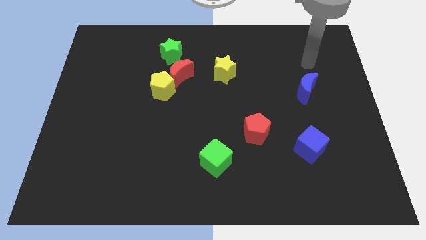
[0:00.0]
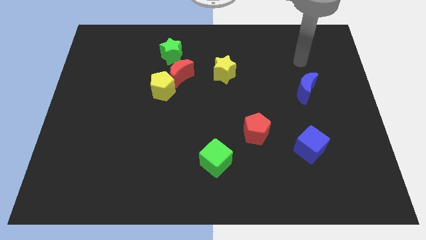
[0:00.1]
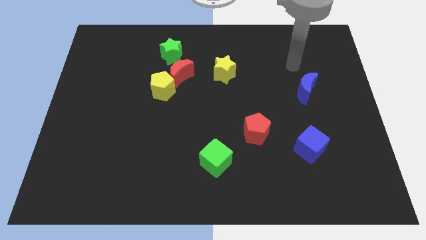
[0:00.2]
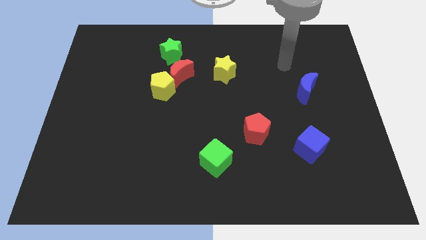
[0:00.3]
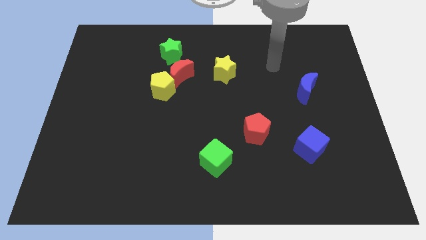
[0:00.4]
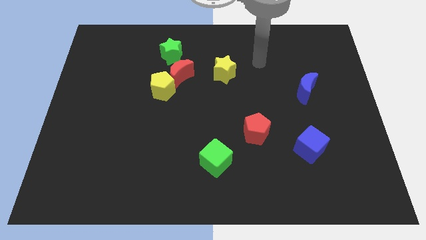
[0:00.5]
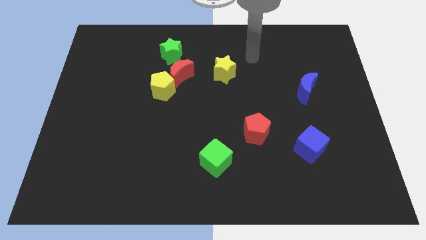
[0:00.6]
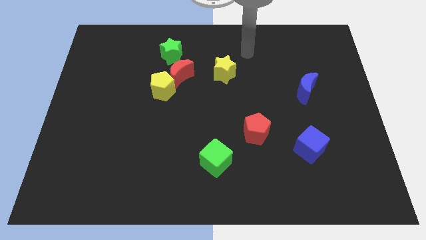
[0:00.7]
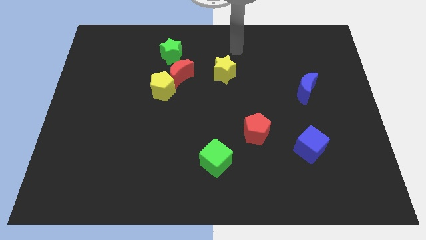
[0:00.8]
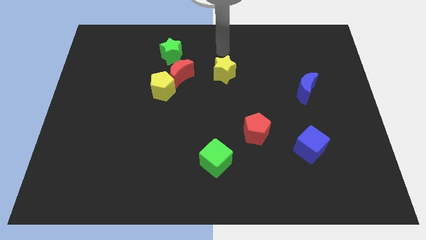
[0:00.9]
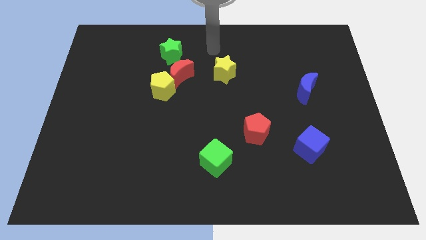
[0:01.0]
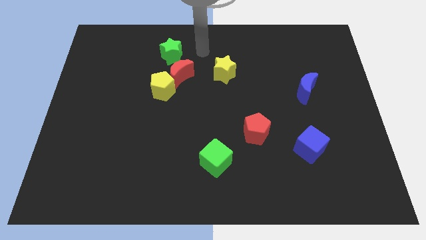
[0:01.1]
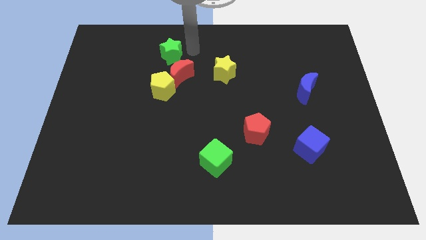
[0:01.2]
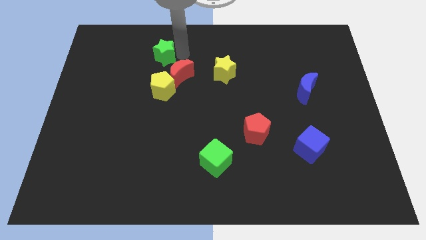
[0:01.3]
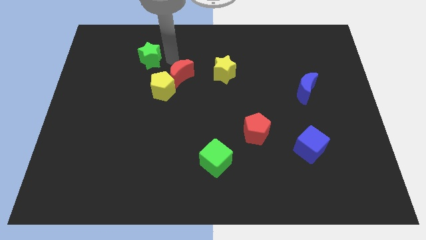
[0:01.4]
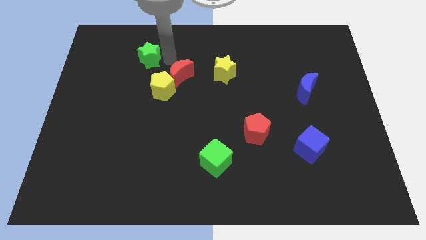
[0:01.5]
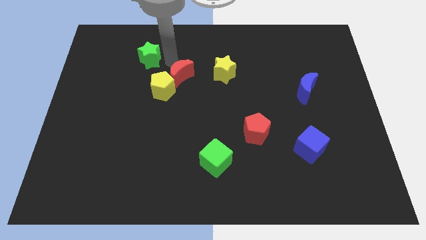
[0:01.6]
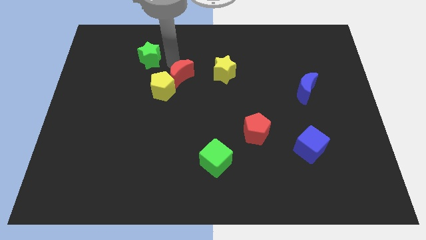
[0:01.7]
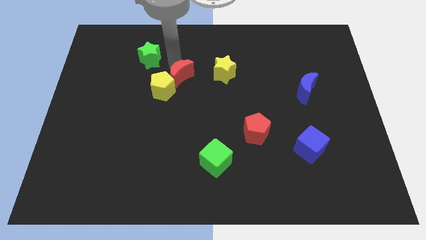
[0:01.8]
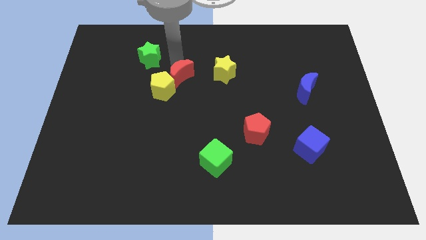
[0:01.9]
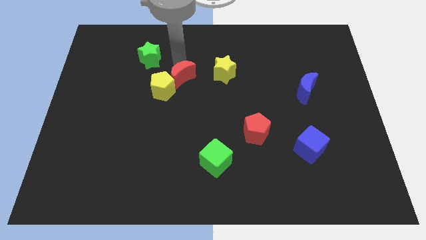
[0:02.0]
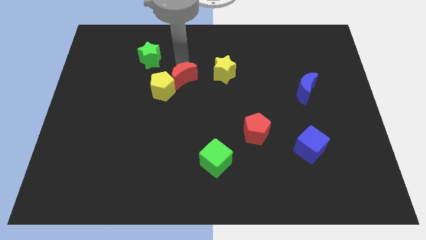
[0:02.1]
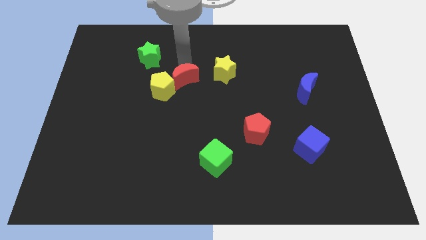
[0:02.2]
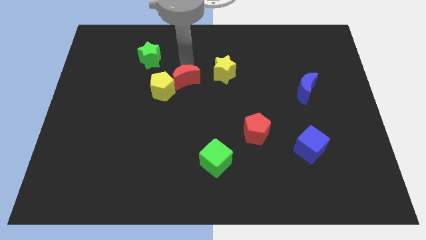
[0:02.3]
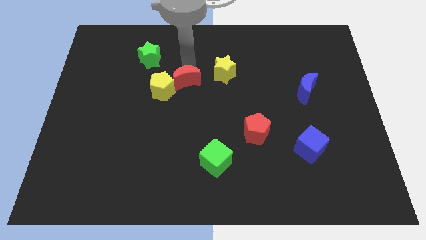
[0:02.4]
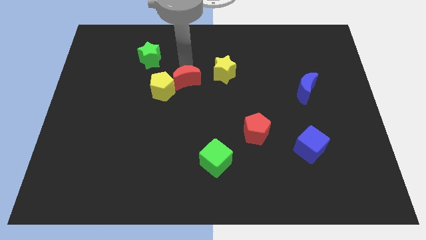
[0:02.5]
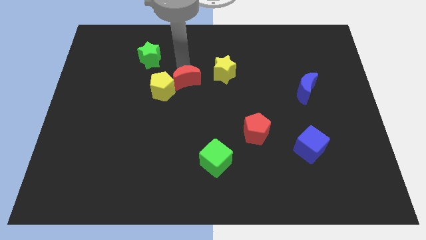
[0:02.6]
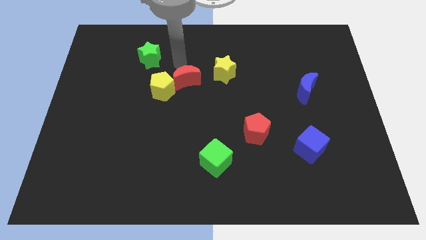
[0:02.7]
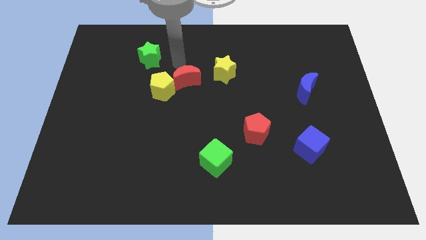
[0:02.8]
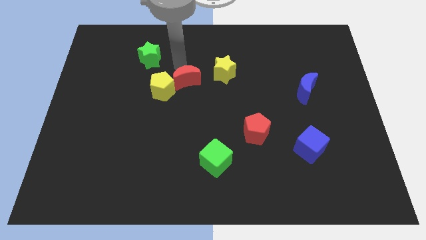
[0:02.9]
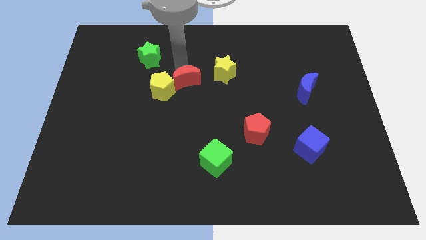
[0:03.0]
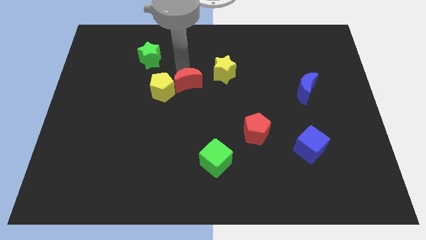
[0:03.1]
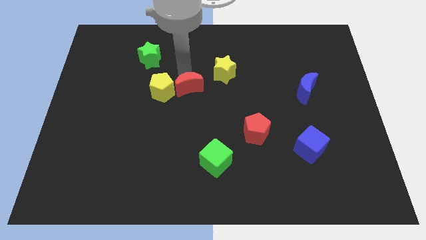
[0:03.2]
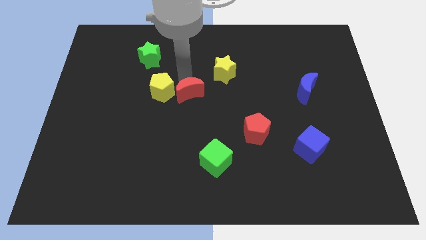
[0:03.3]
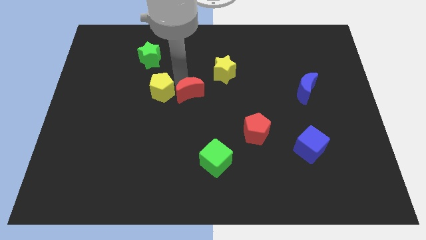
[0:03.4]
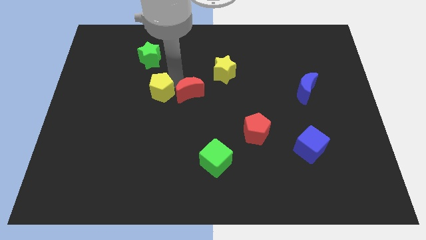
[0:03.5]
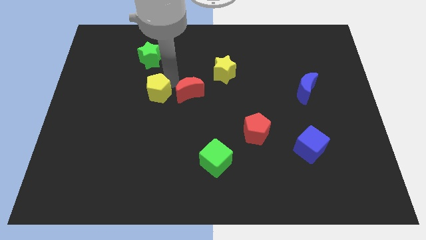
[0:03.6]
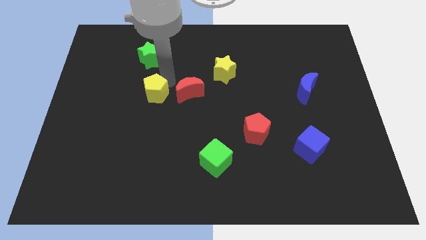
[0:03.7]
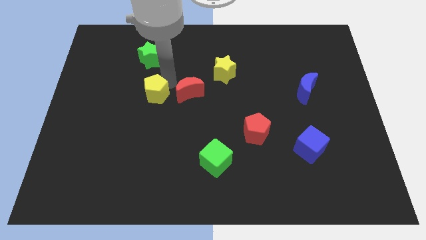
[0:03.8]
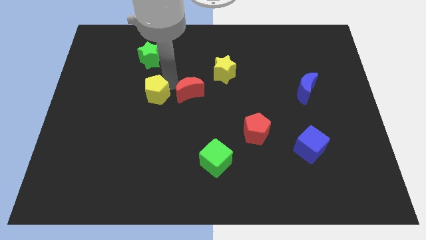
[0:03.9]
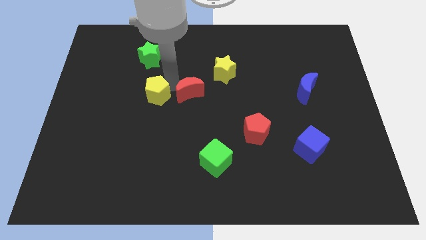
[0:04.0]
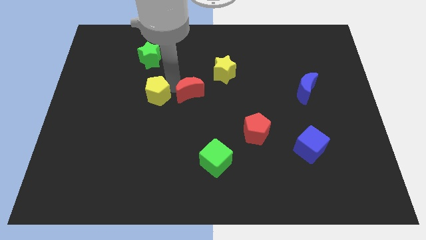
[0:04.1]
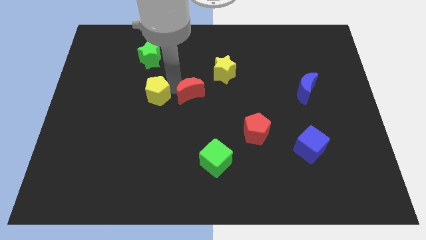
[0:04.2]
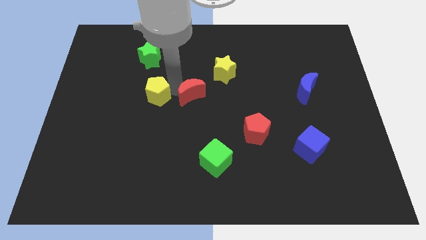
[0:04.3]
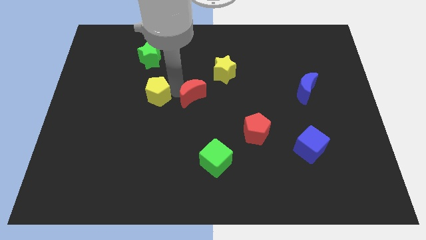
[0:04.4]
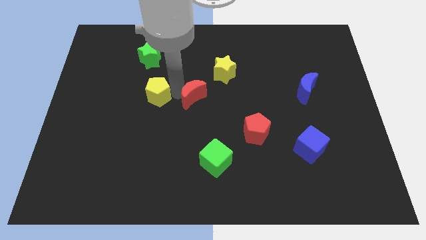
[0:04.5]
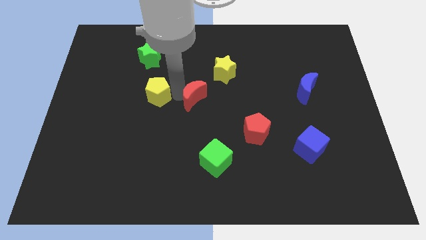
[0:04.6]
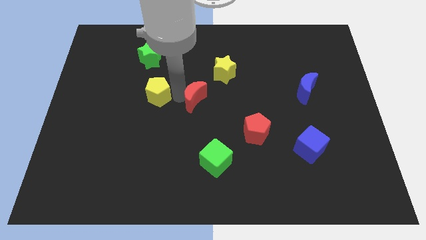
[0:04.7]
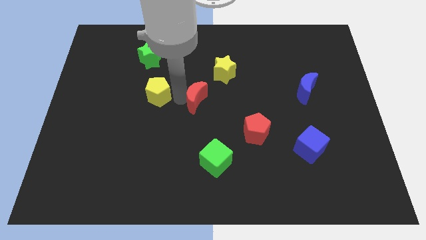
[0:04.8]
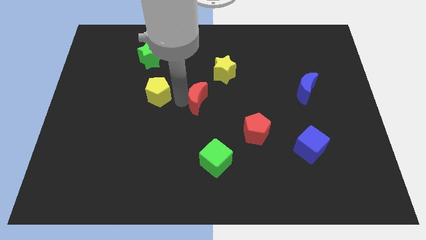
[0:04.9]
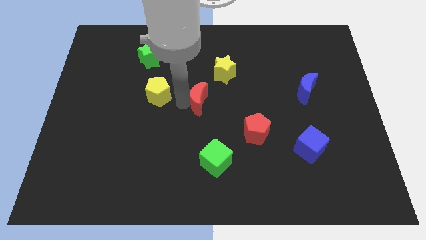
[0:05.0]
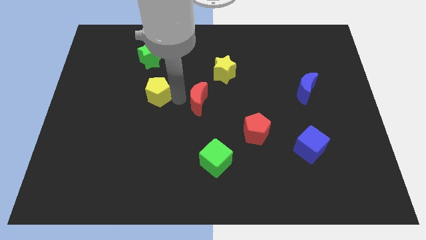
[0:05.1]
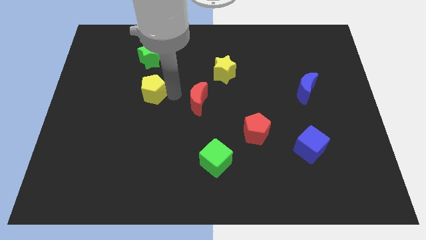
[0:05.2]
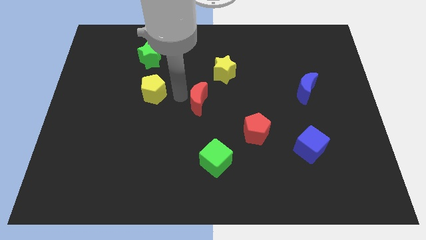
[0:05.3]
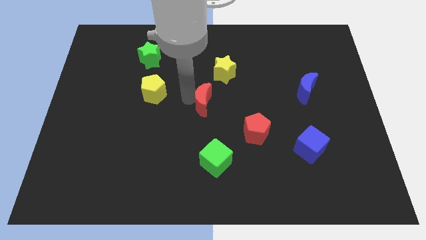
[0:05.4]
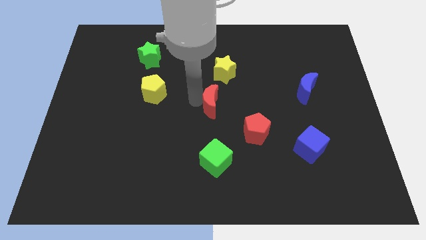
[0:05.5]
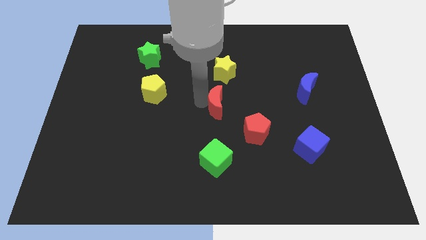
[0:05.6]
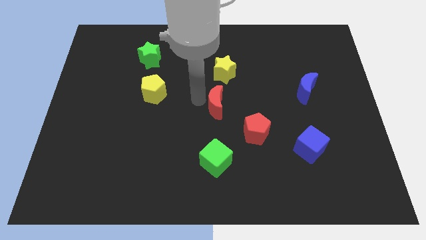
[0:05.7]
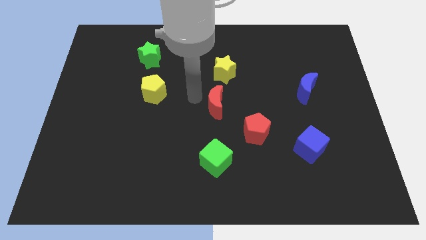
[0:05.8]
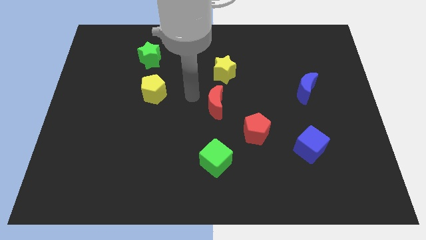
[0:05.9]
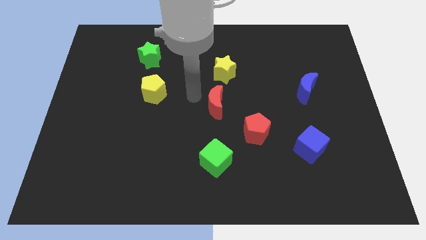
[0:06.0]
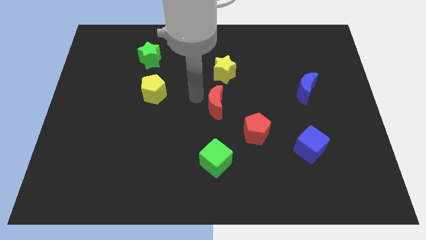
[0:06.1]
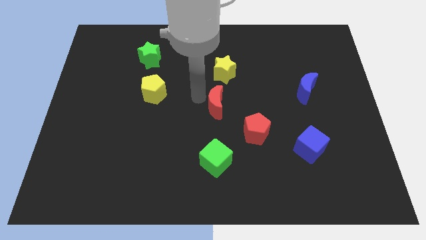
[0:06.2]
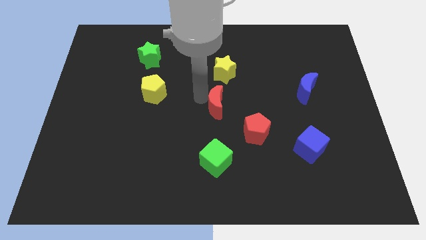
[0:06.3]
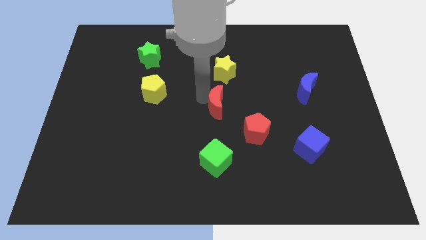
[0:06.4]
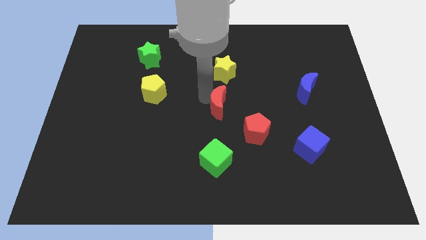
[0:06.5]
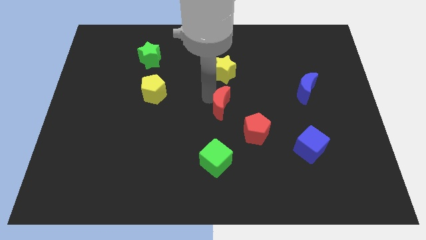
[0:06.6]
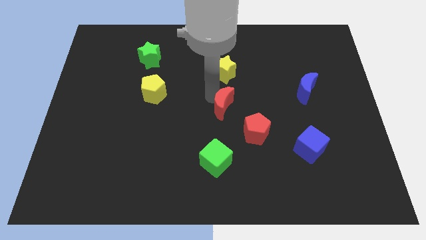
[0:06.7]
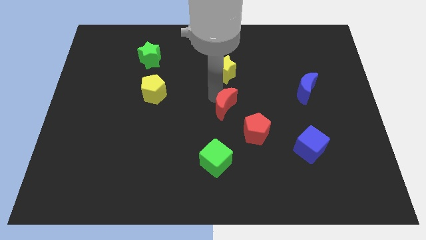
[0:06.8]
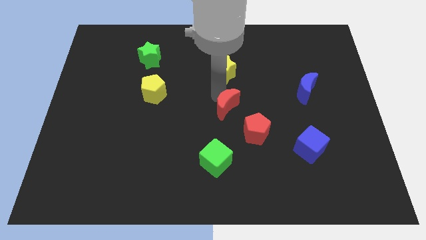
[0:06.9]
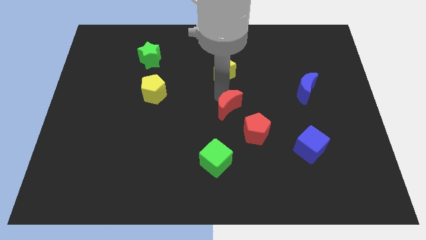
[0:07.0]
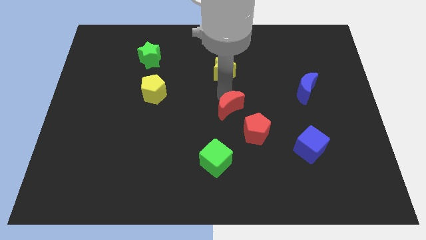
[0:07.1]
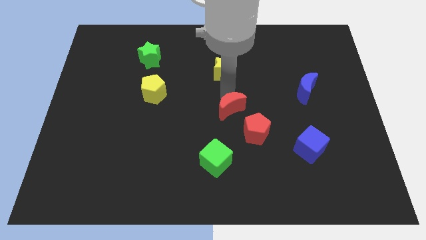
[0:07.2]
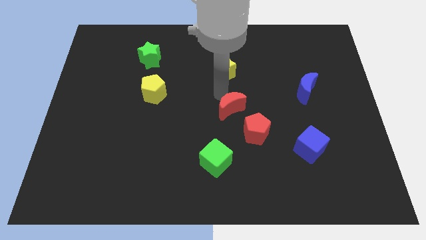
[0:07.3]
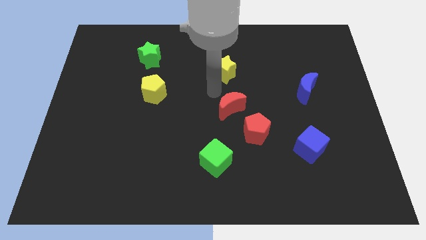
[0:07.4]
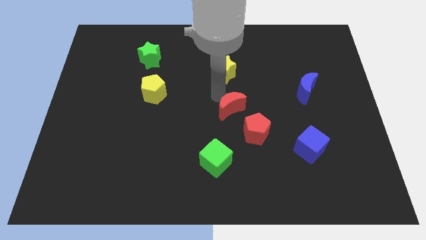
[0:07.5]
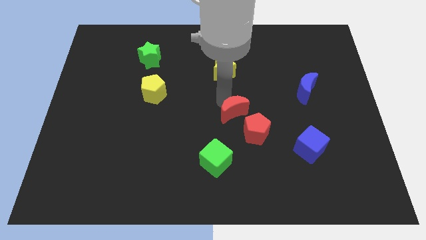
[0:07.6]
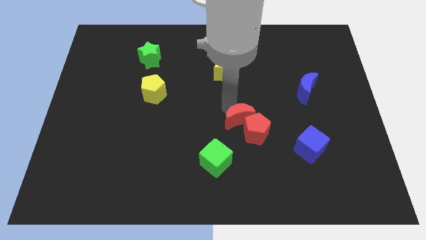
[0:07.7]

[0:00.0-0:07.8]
move the red moon close to the red pentagon
